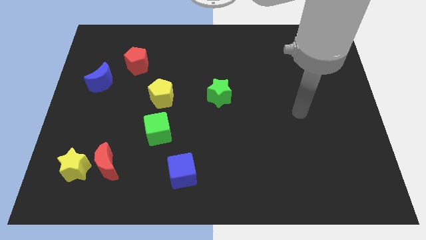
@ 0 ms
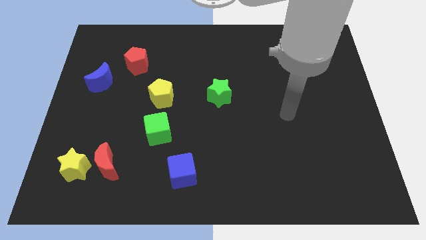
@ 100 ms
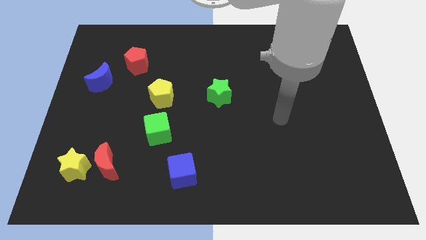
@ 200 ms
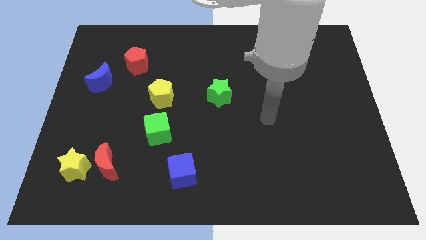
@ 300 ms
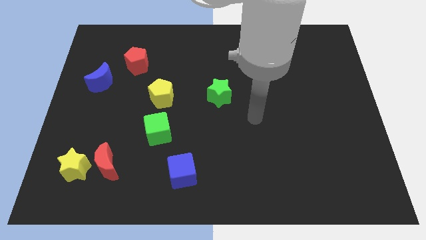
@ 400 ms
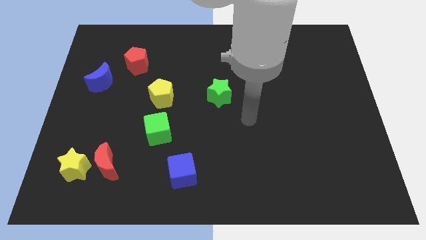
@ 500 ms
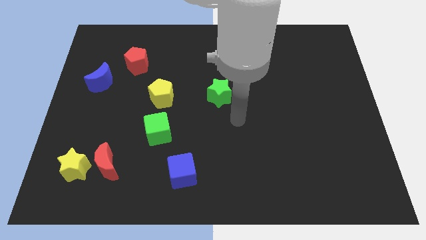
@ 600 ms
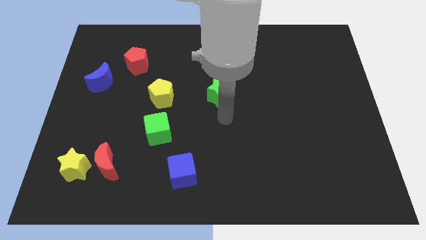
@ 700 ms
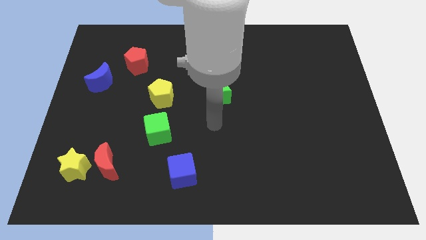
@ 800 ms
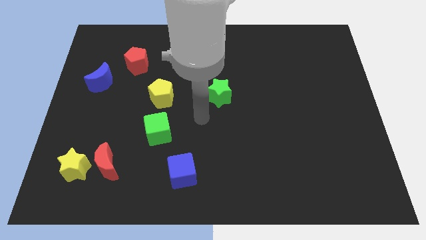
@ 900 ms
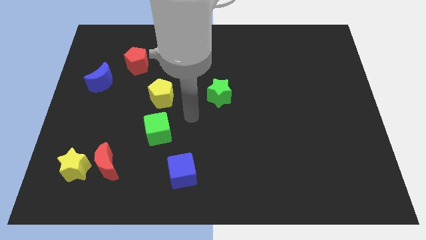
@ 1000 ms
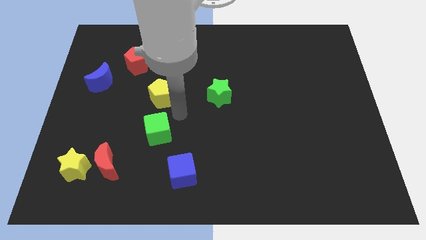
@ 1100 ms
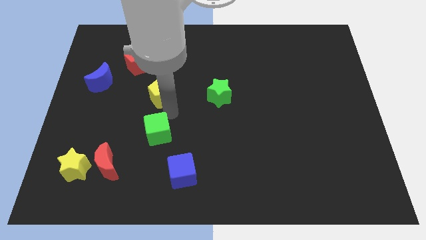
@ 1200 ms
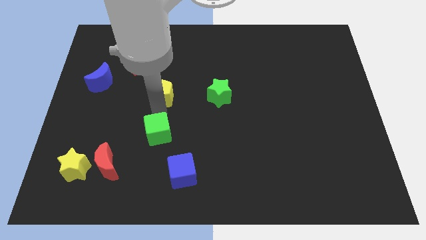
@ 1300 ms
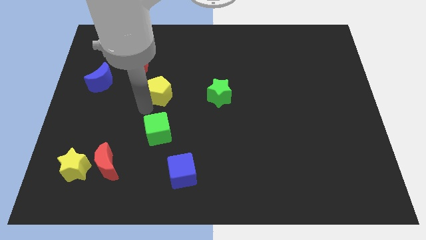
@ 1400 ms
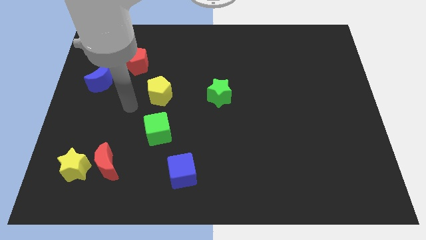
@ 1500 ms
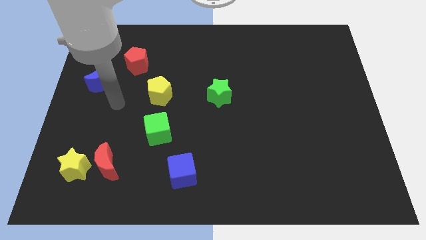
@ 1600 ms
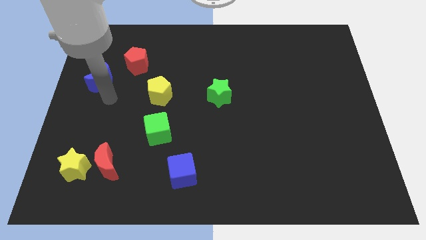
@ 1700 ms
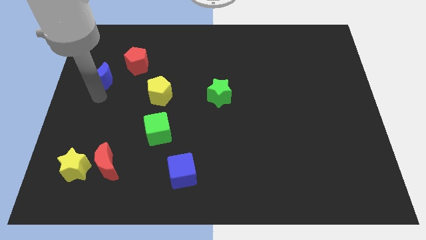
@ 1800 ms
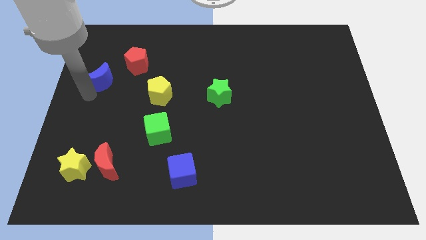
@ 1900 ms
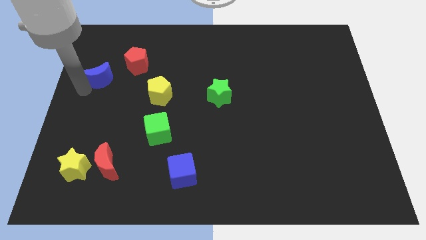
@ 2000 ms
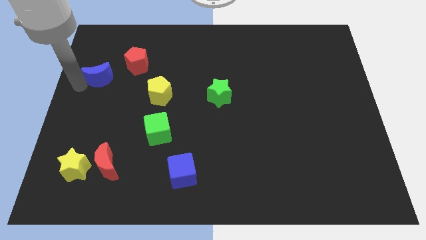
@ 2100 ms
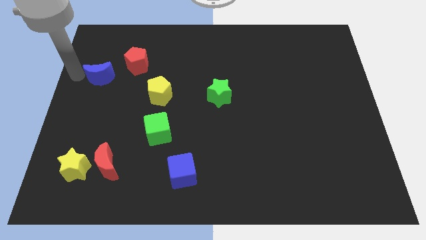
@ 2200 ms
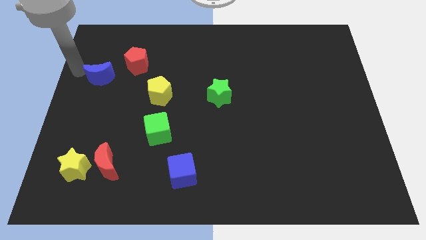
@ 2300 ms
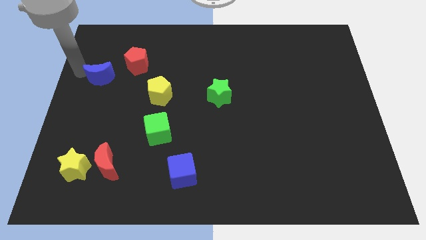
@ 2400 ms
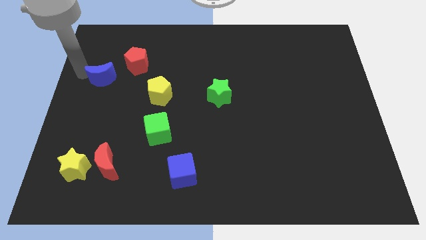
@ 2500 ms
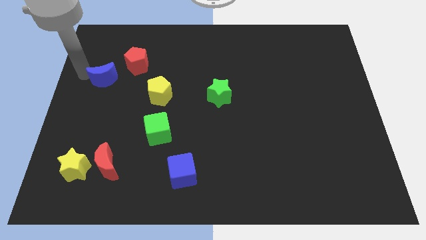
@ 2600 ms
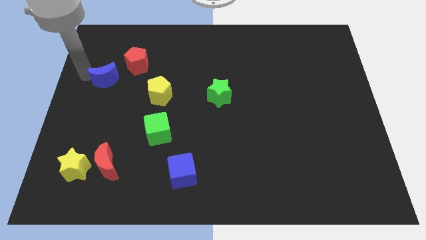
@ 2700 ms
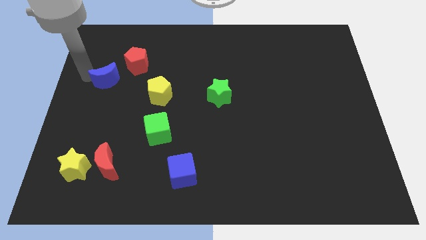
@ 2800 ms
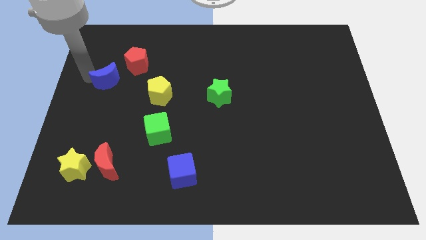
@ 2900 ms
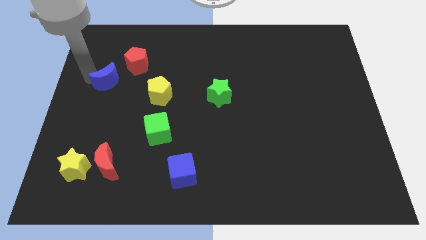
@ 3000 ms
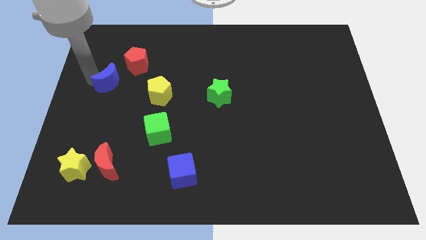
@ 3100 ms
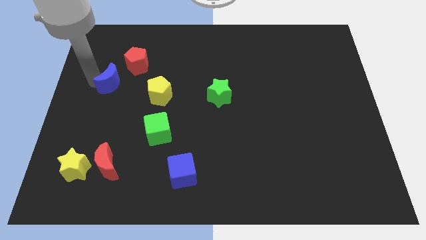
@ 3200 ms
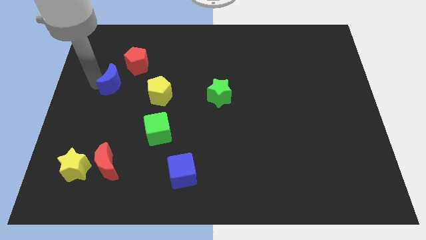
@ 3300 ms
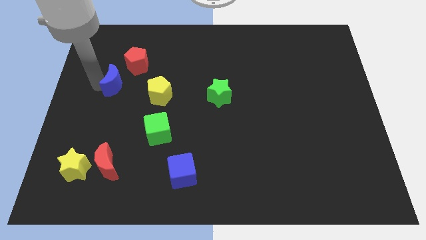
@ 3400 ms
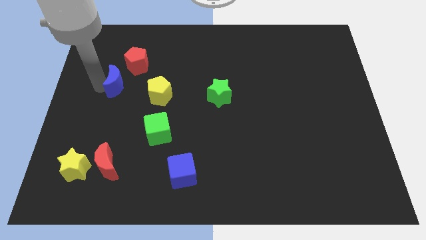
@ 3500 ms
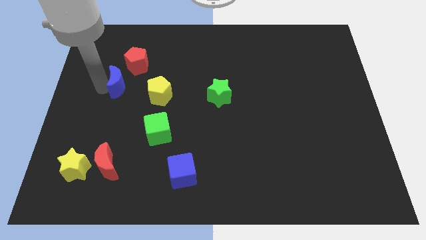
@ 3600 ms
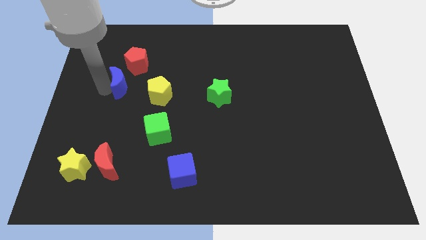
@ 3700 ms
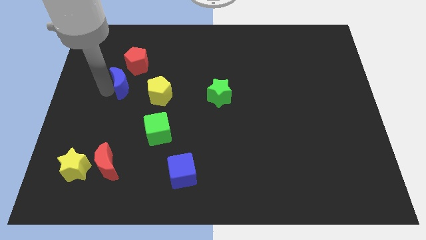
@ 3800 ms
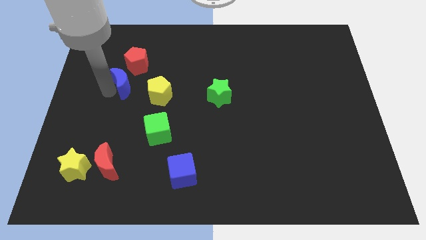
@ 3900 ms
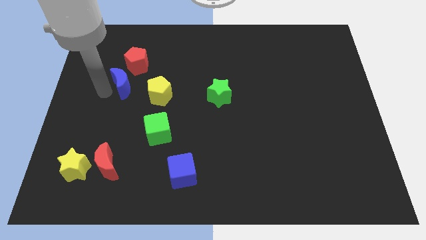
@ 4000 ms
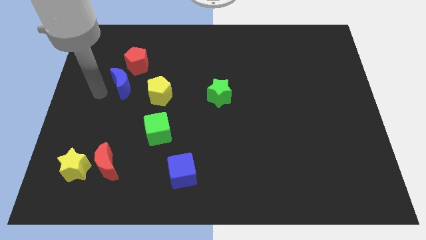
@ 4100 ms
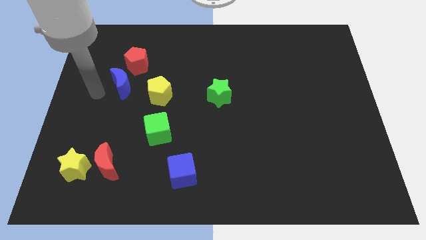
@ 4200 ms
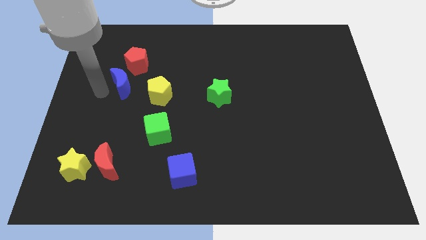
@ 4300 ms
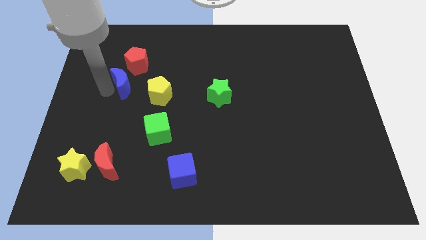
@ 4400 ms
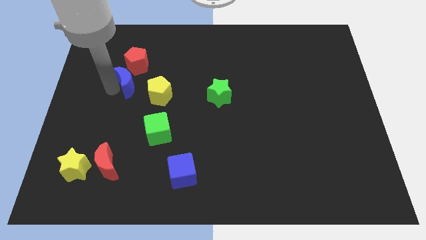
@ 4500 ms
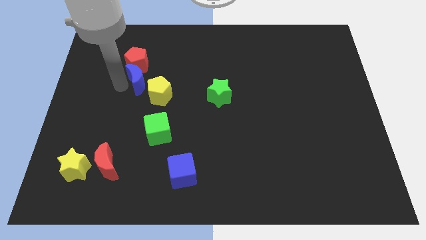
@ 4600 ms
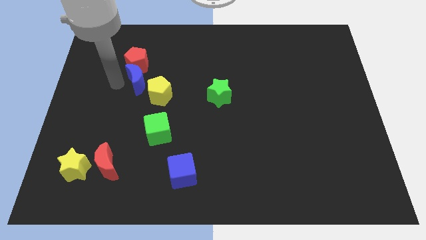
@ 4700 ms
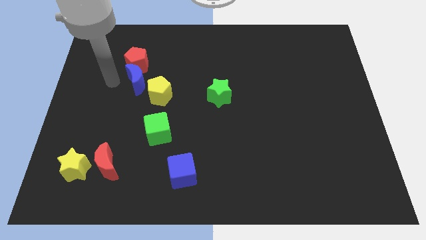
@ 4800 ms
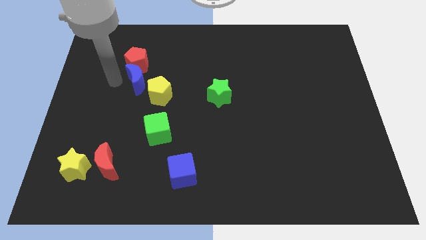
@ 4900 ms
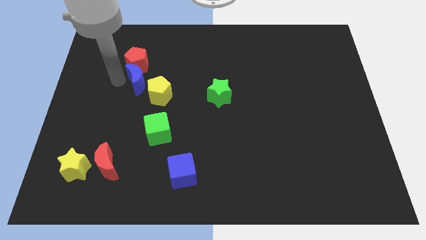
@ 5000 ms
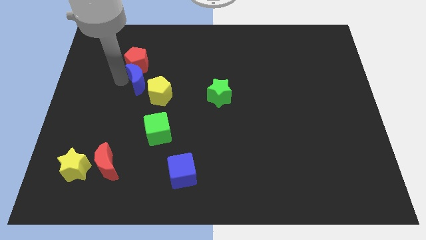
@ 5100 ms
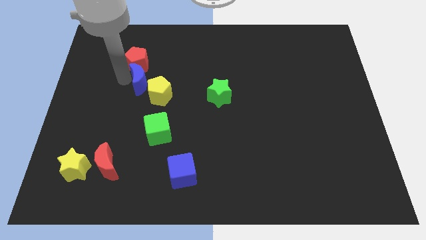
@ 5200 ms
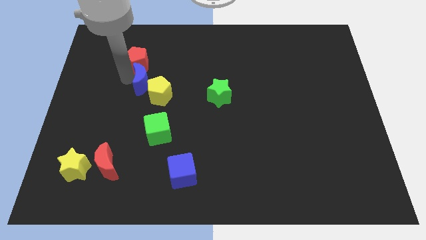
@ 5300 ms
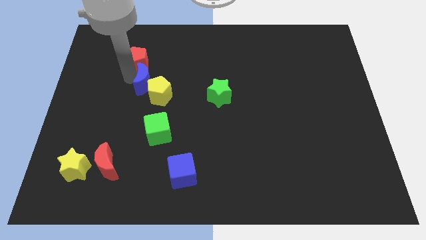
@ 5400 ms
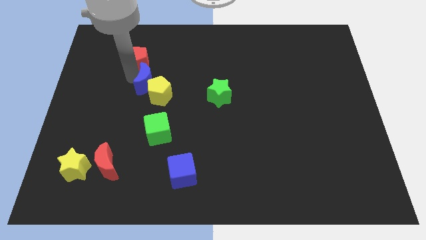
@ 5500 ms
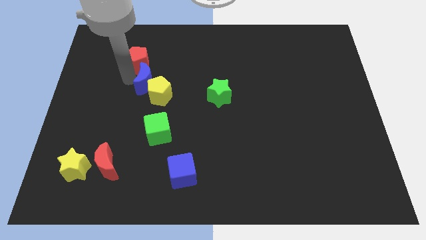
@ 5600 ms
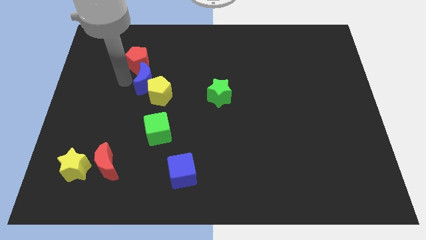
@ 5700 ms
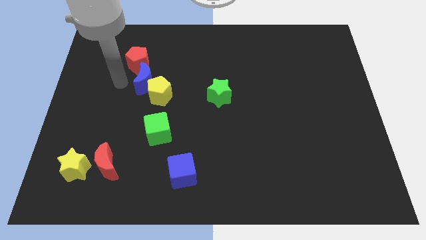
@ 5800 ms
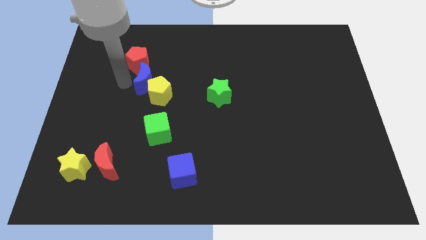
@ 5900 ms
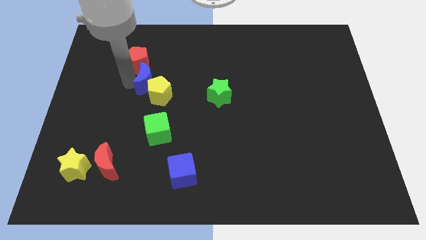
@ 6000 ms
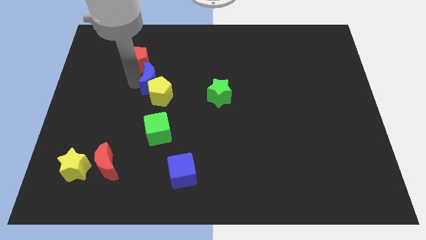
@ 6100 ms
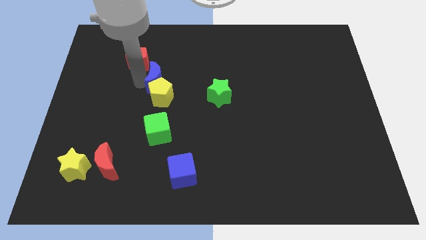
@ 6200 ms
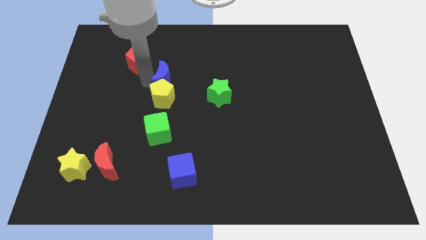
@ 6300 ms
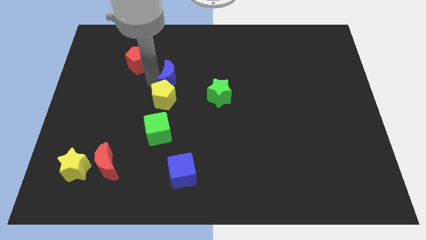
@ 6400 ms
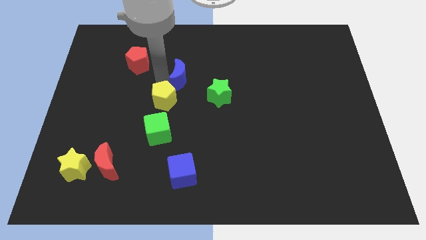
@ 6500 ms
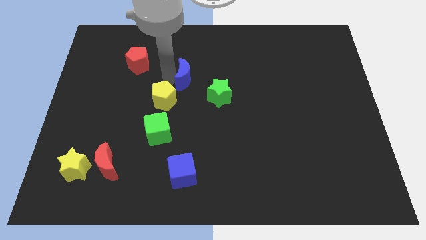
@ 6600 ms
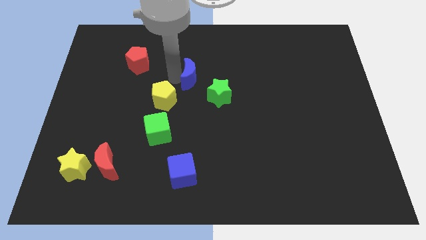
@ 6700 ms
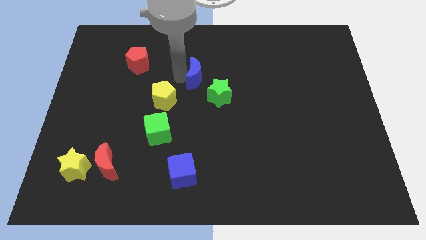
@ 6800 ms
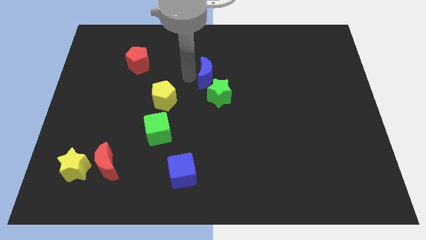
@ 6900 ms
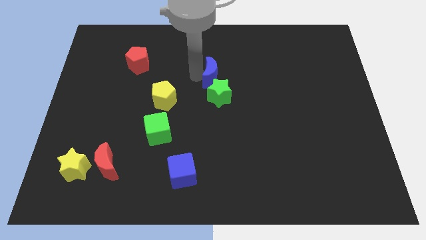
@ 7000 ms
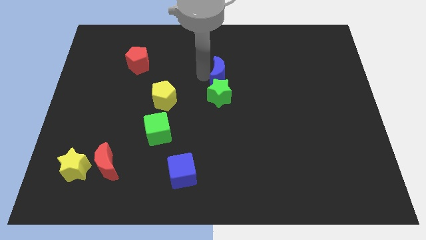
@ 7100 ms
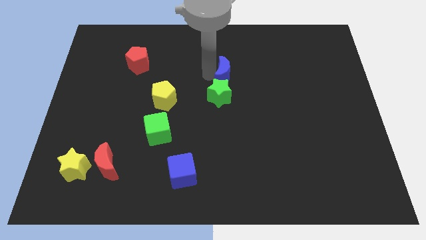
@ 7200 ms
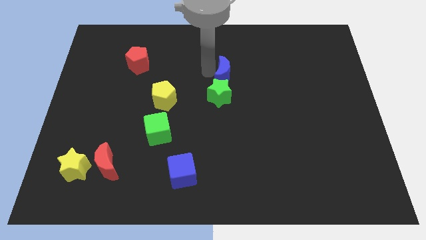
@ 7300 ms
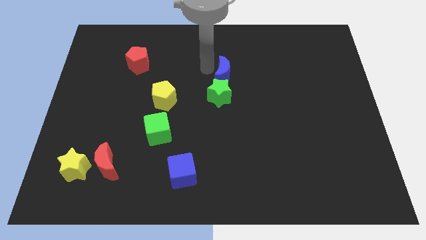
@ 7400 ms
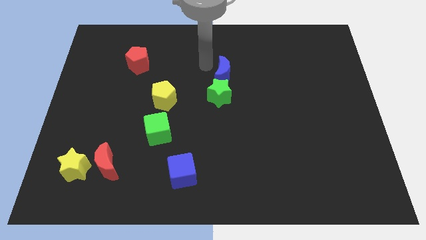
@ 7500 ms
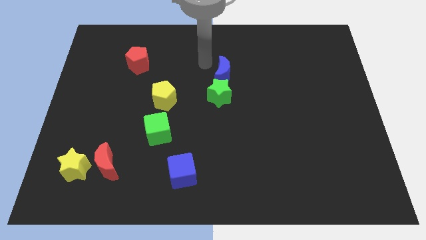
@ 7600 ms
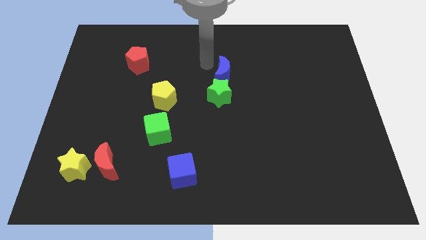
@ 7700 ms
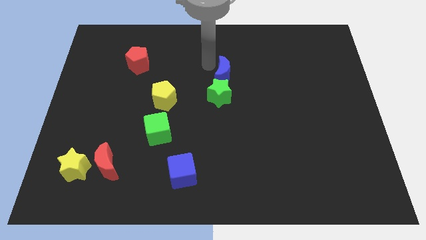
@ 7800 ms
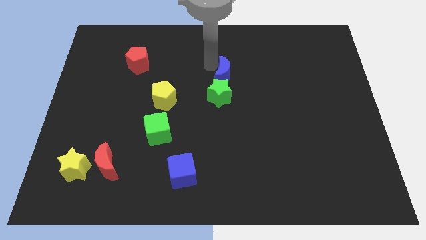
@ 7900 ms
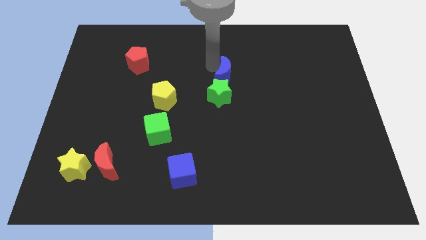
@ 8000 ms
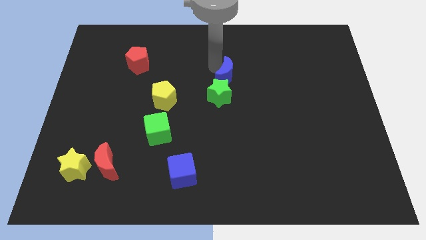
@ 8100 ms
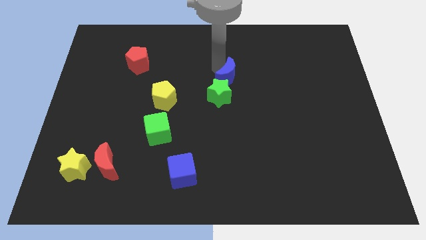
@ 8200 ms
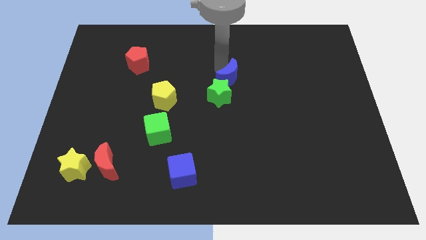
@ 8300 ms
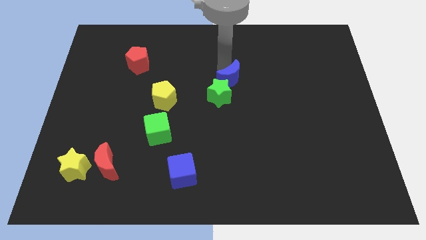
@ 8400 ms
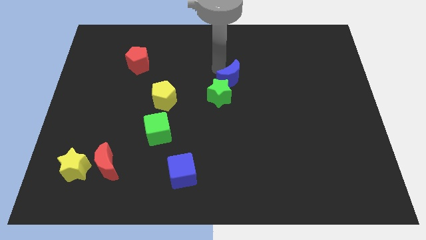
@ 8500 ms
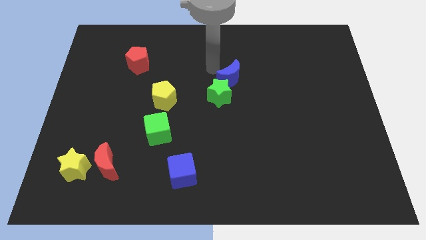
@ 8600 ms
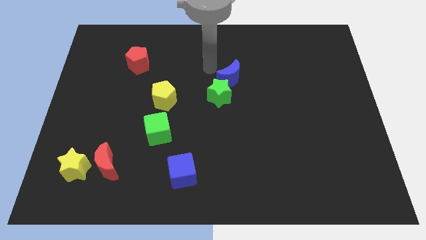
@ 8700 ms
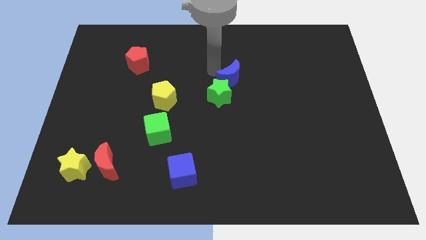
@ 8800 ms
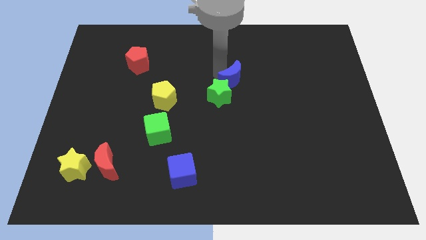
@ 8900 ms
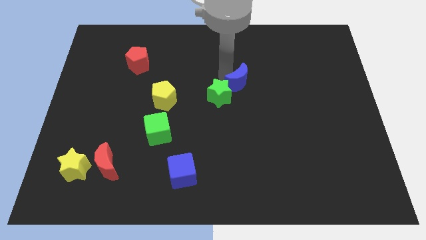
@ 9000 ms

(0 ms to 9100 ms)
move the blue moon to the right of the green star
